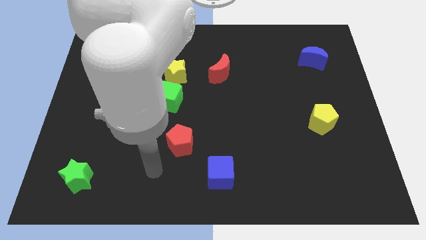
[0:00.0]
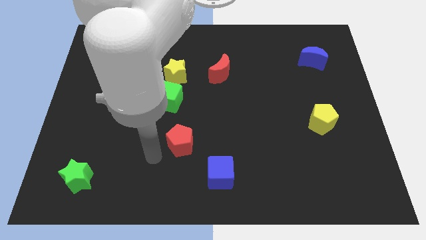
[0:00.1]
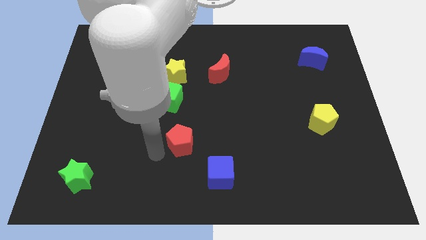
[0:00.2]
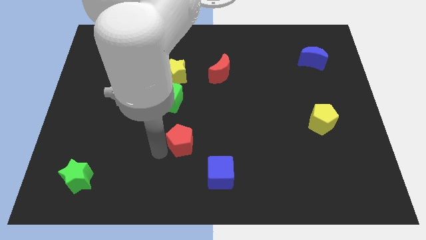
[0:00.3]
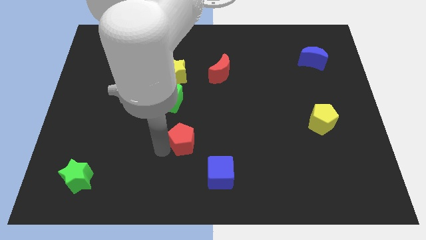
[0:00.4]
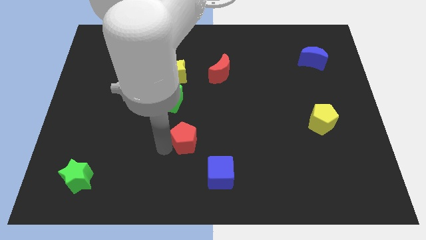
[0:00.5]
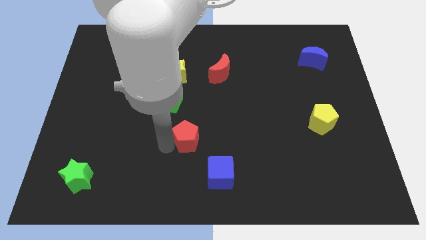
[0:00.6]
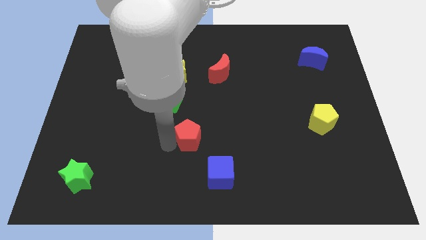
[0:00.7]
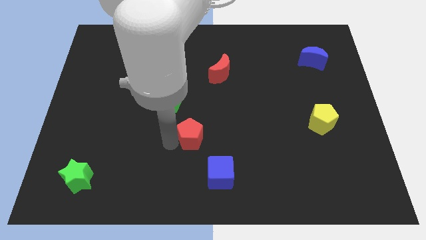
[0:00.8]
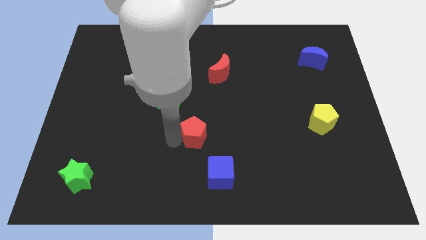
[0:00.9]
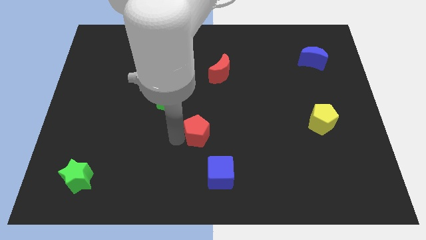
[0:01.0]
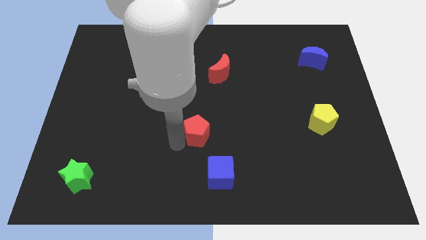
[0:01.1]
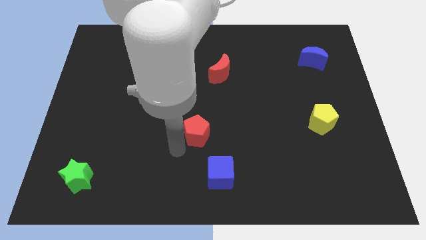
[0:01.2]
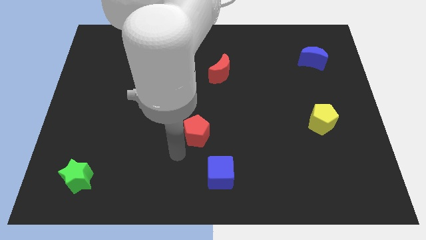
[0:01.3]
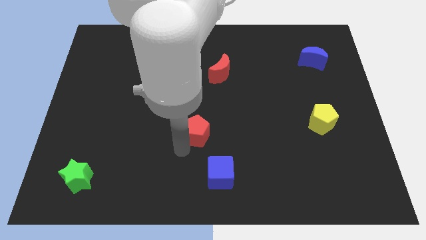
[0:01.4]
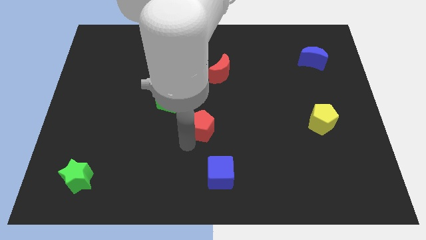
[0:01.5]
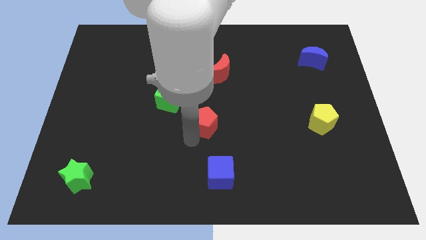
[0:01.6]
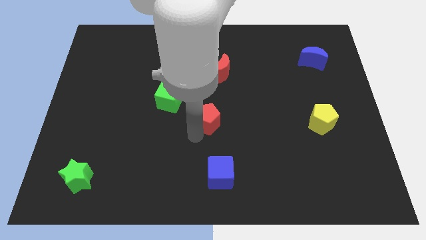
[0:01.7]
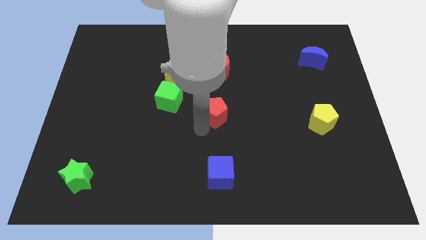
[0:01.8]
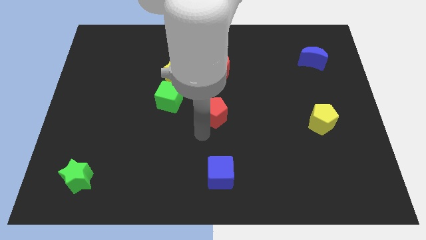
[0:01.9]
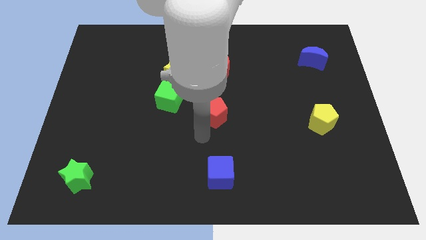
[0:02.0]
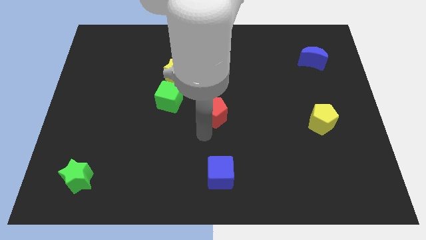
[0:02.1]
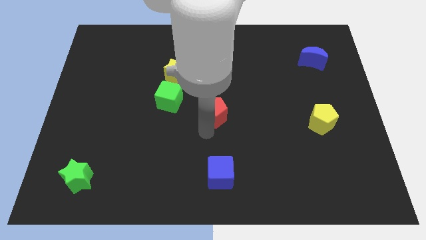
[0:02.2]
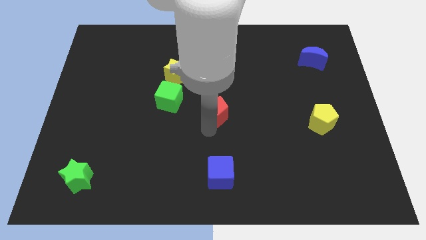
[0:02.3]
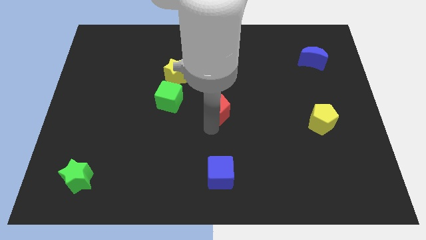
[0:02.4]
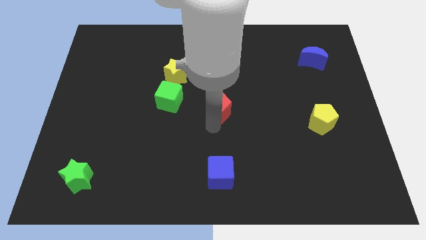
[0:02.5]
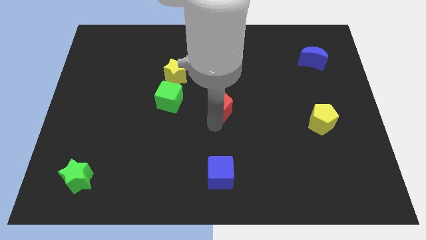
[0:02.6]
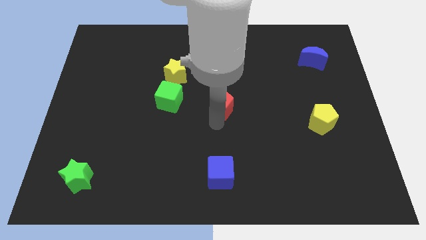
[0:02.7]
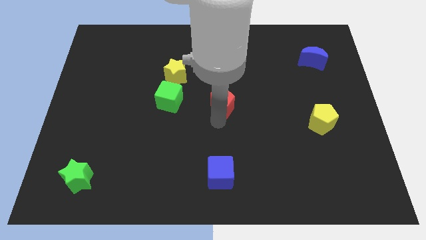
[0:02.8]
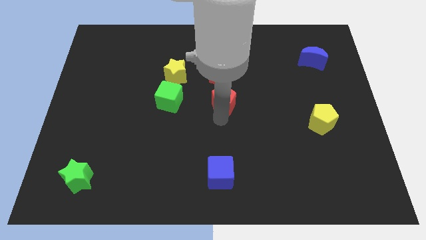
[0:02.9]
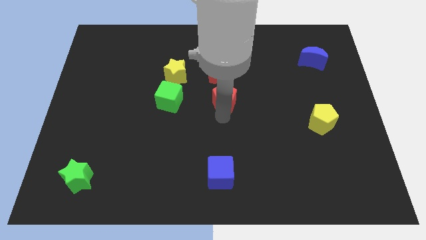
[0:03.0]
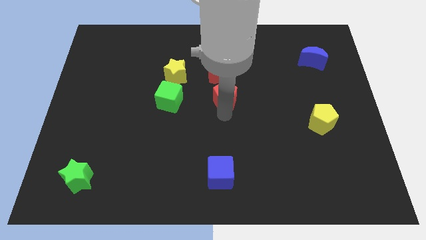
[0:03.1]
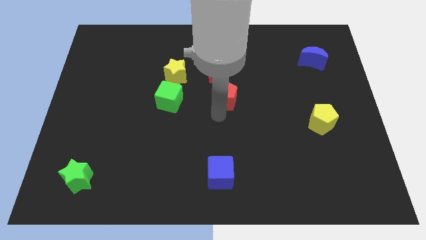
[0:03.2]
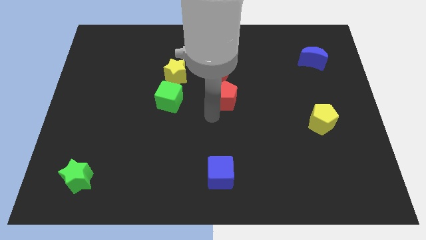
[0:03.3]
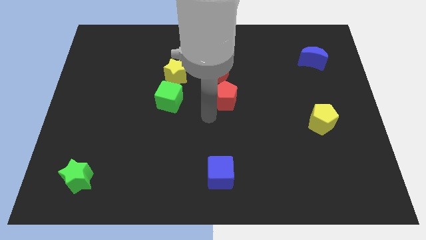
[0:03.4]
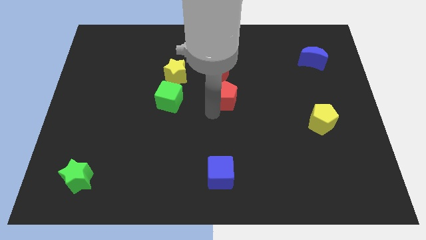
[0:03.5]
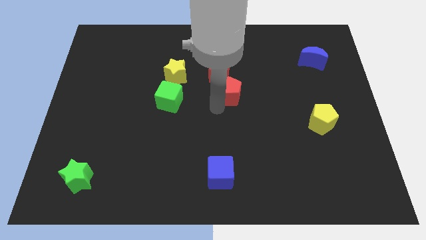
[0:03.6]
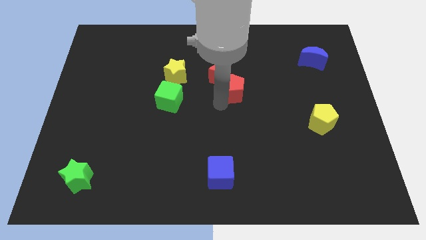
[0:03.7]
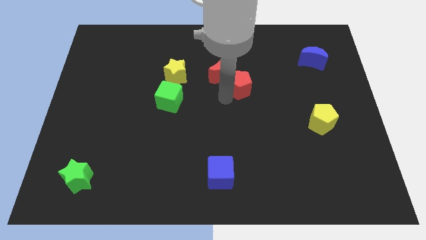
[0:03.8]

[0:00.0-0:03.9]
move the red pentagon diagonally up and to the right

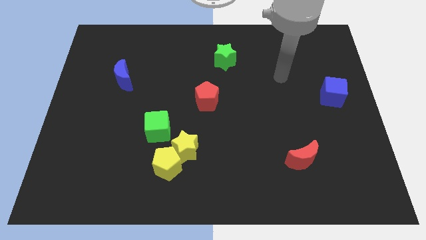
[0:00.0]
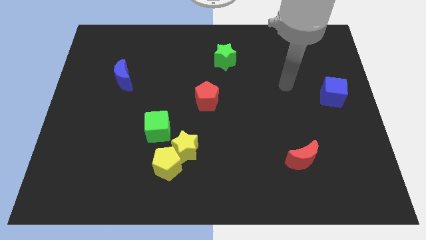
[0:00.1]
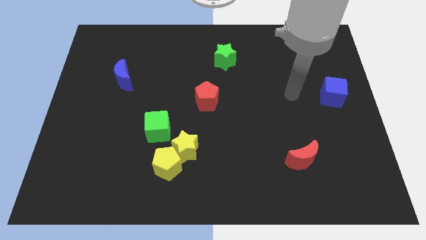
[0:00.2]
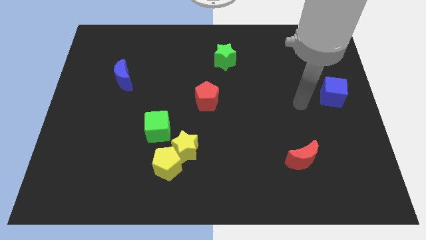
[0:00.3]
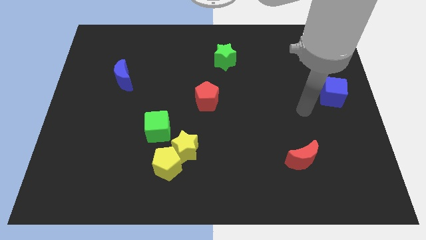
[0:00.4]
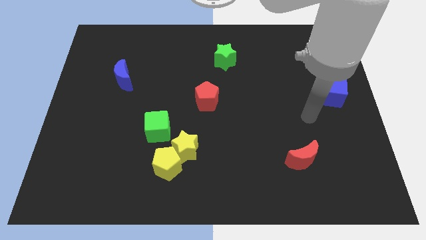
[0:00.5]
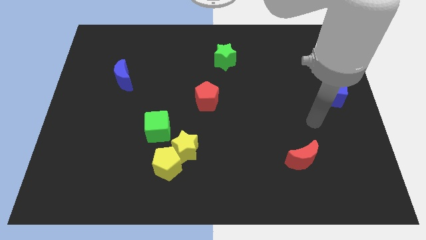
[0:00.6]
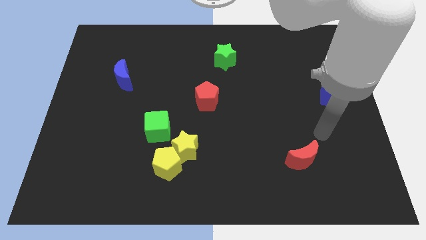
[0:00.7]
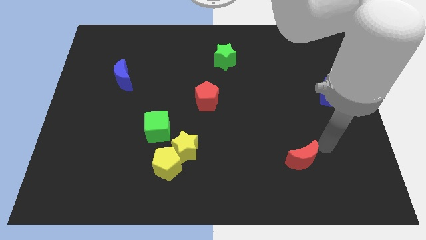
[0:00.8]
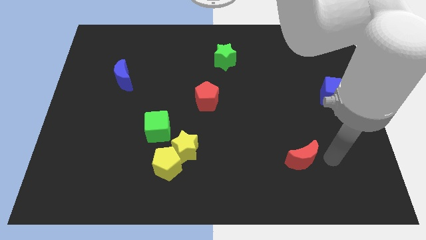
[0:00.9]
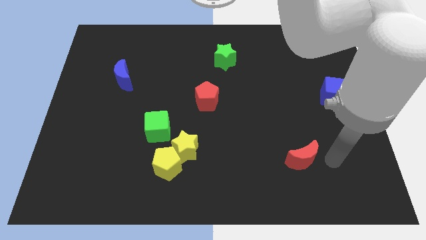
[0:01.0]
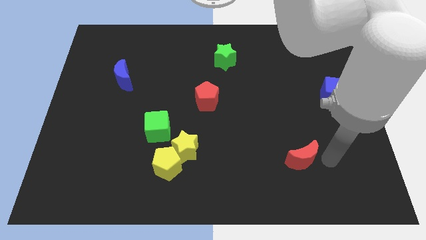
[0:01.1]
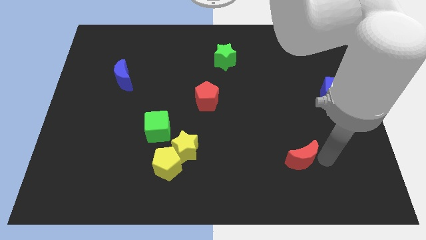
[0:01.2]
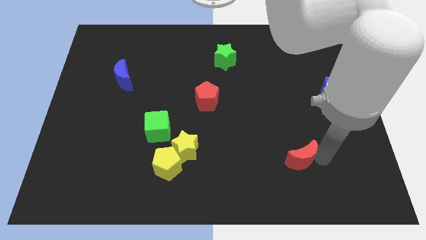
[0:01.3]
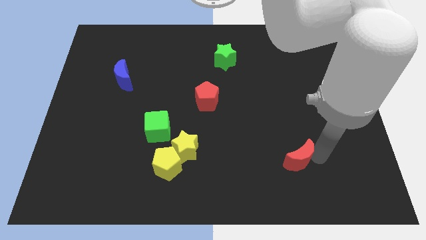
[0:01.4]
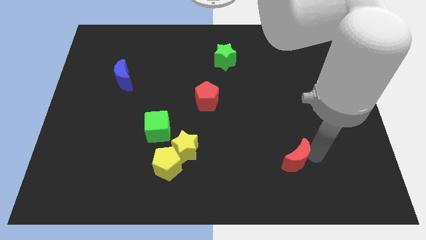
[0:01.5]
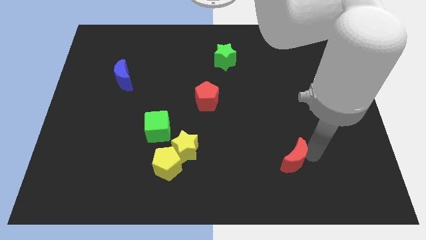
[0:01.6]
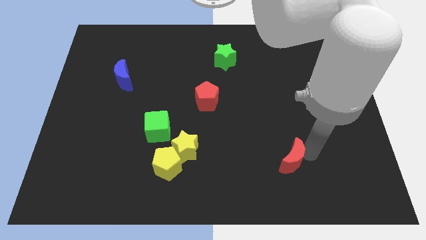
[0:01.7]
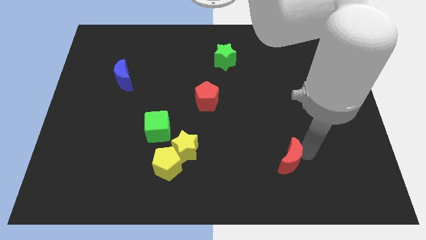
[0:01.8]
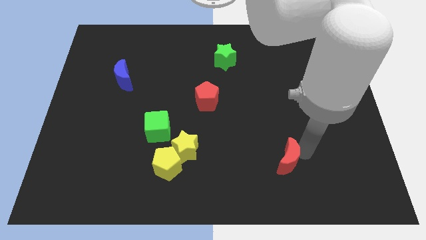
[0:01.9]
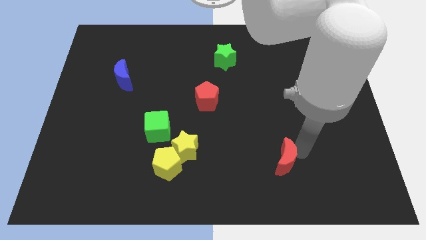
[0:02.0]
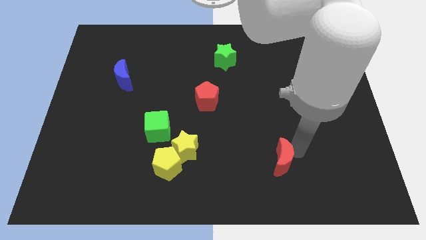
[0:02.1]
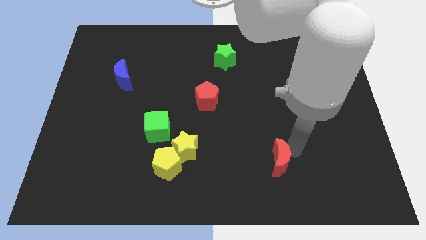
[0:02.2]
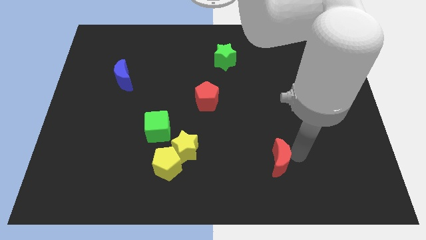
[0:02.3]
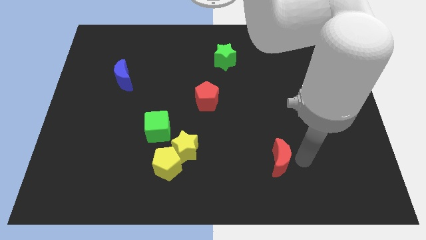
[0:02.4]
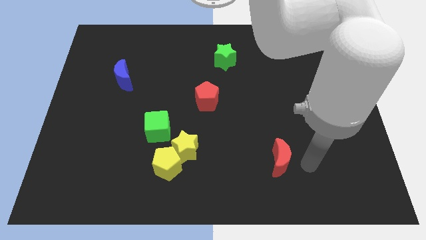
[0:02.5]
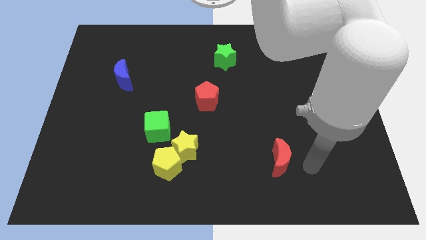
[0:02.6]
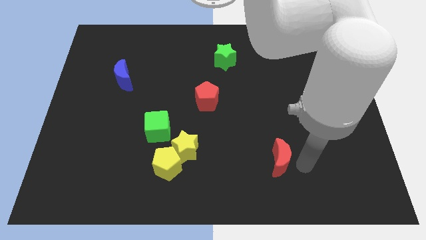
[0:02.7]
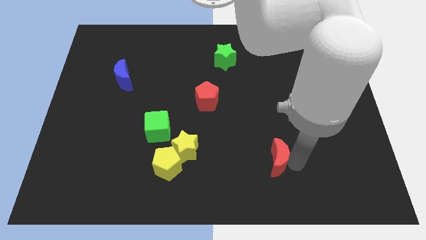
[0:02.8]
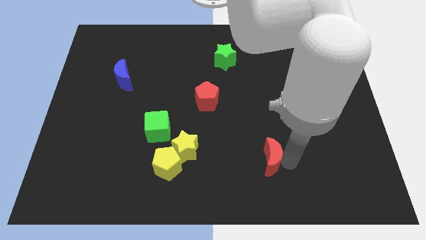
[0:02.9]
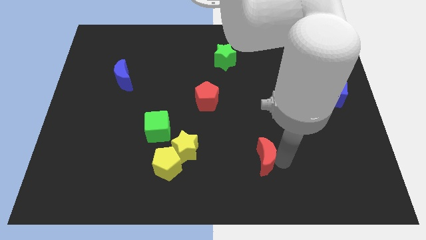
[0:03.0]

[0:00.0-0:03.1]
slide the red moon left a little bit

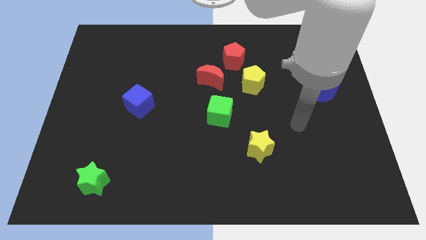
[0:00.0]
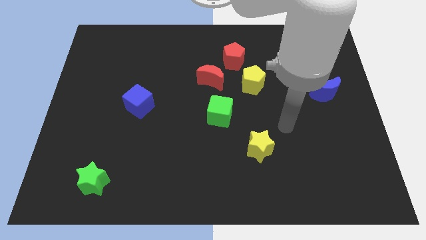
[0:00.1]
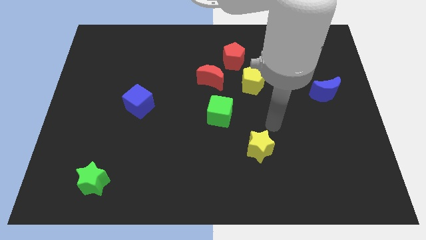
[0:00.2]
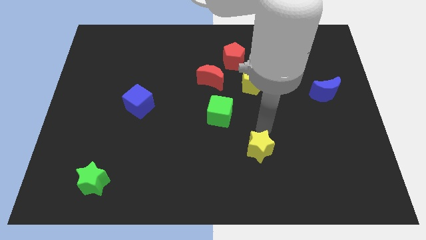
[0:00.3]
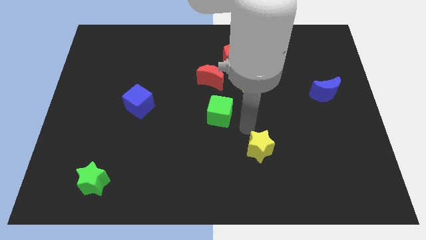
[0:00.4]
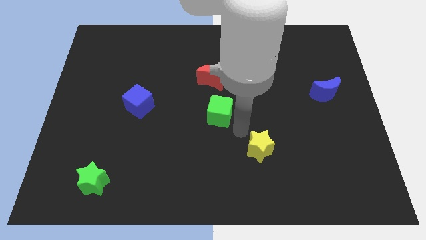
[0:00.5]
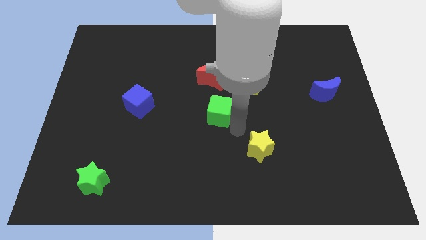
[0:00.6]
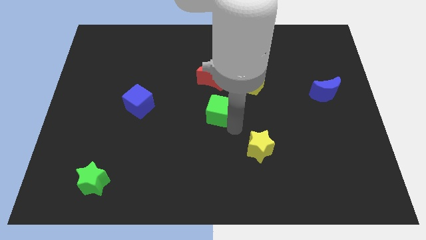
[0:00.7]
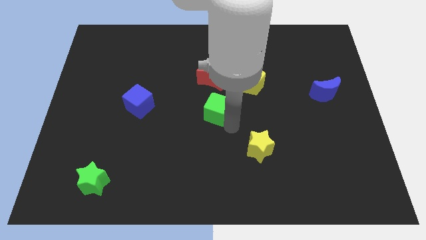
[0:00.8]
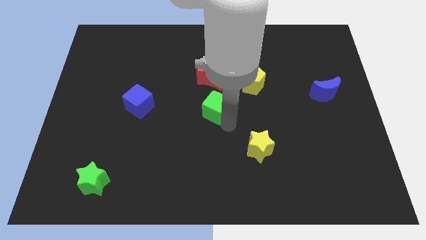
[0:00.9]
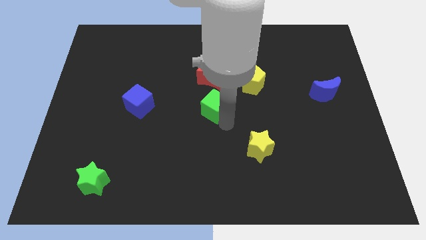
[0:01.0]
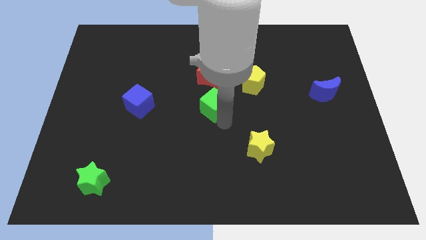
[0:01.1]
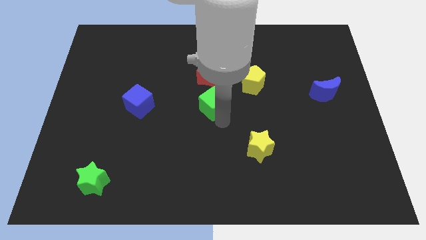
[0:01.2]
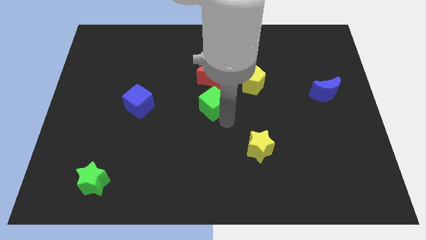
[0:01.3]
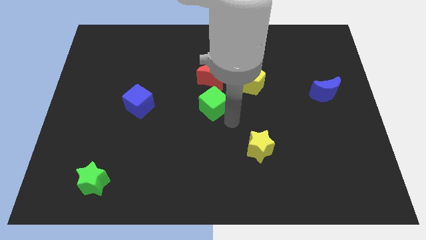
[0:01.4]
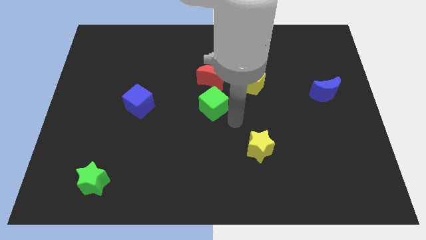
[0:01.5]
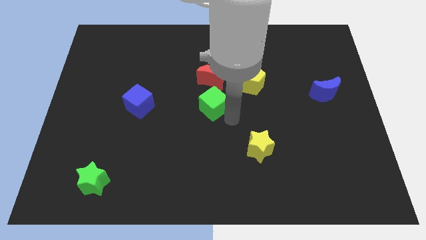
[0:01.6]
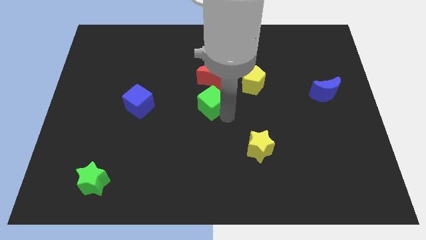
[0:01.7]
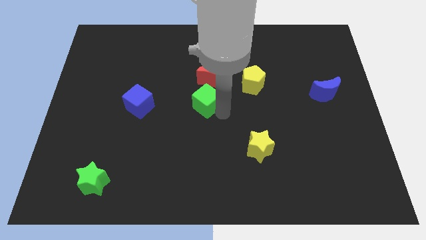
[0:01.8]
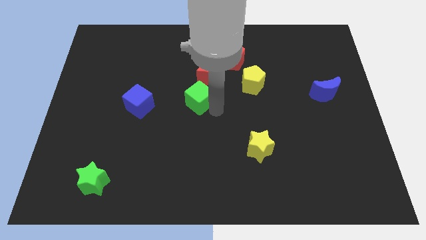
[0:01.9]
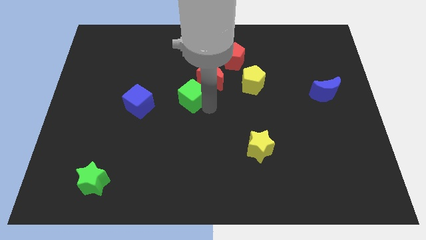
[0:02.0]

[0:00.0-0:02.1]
slide the green cube up and then to the left a little
